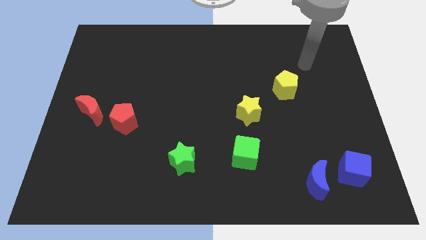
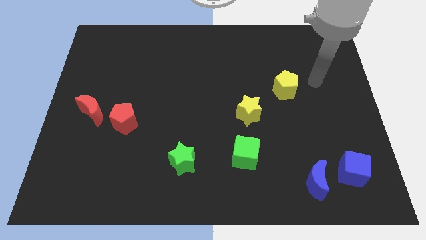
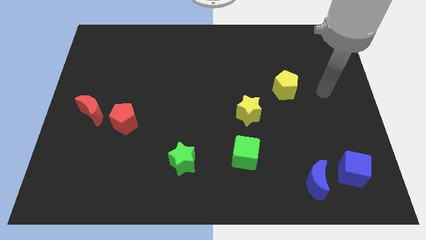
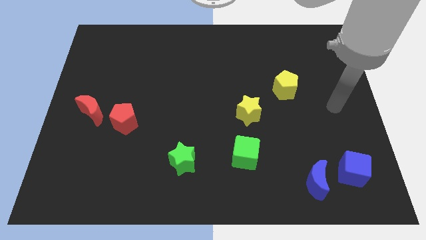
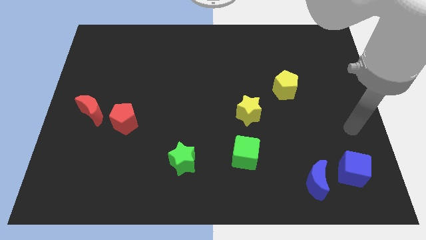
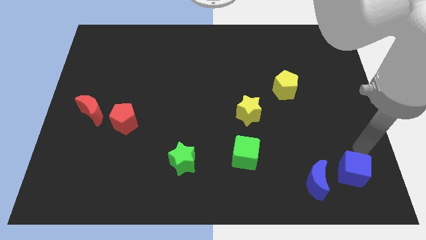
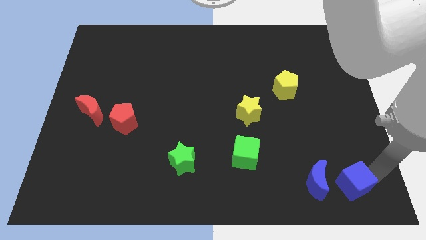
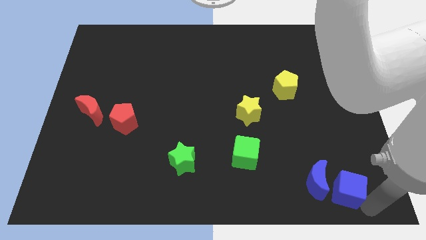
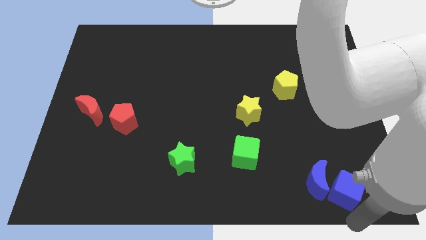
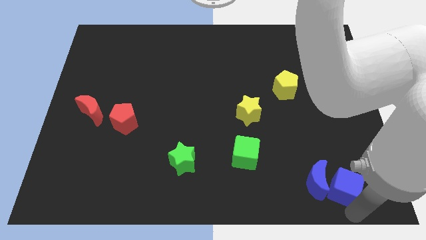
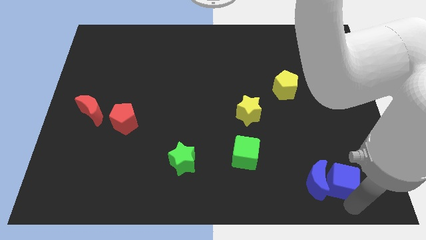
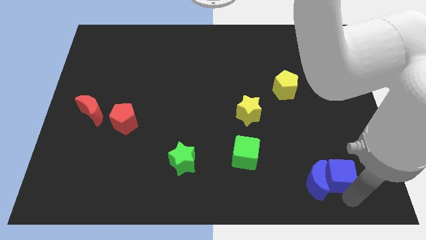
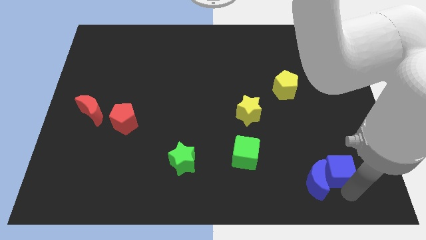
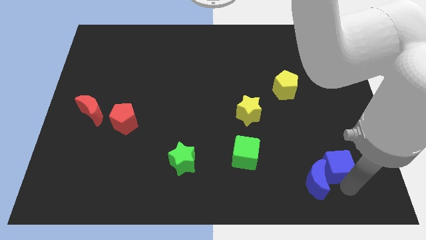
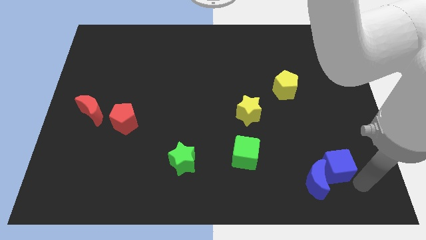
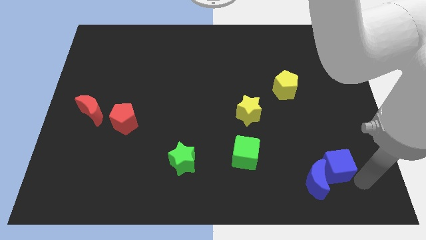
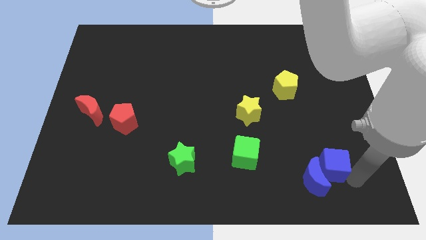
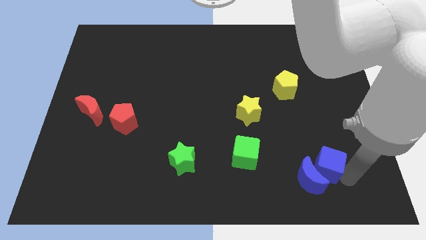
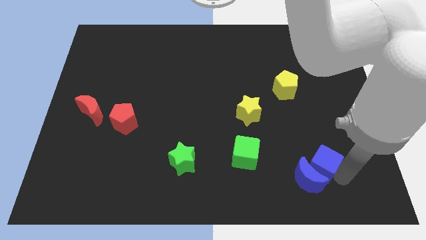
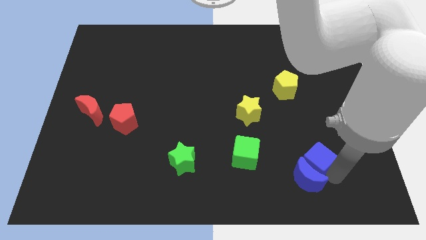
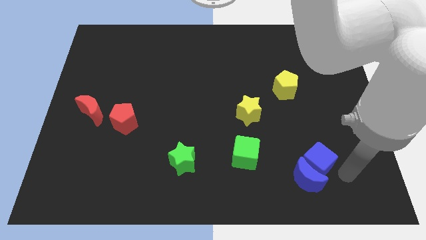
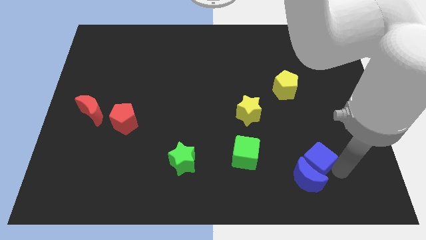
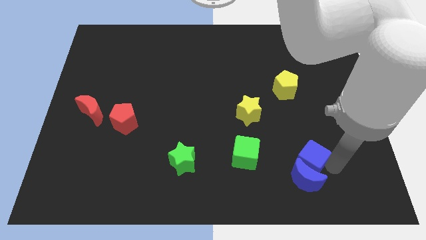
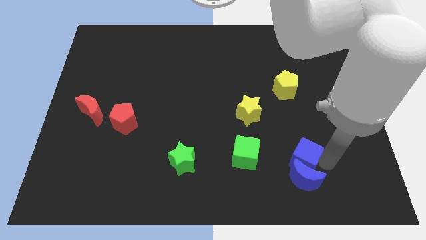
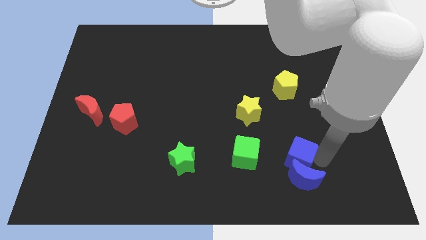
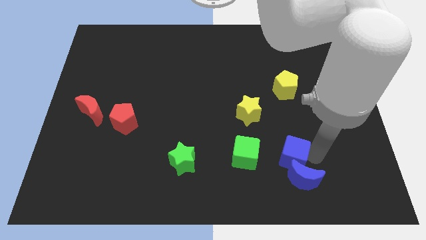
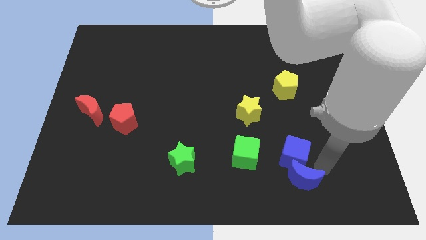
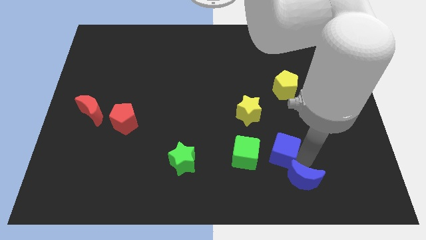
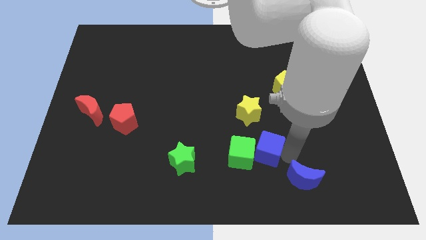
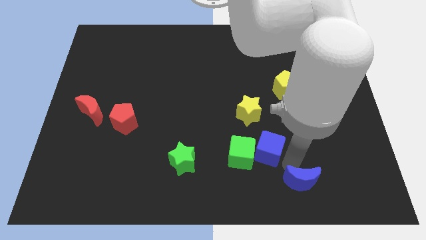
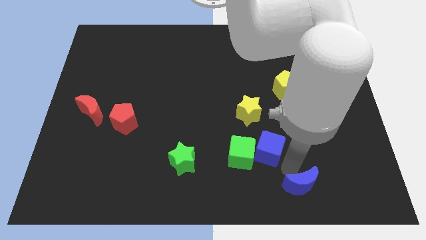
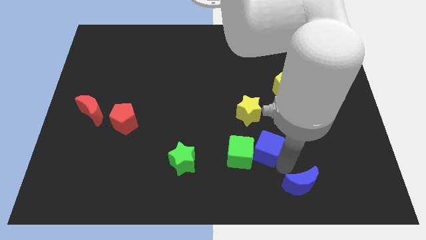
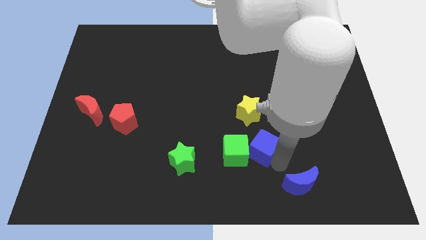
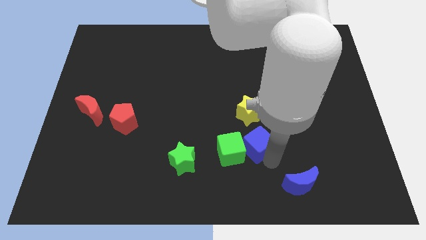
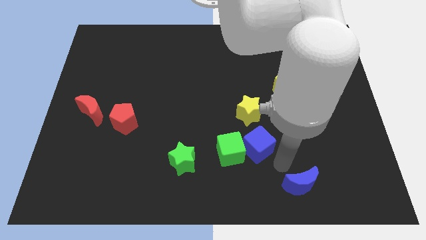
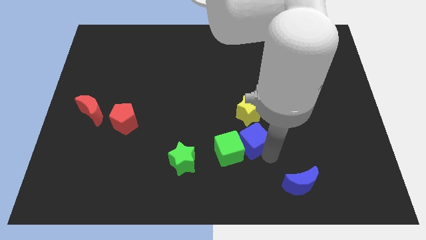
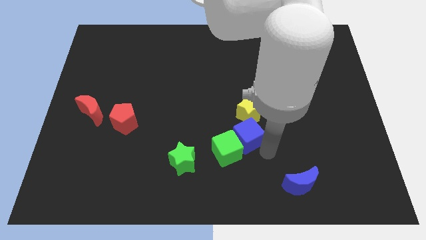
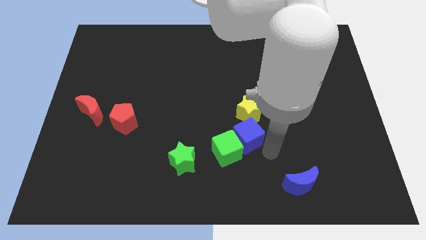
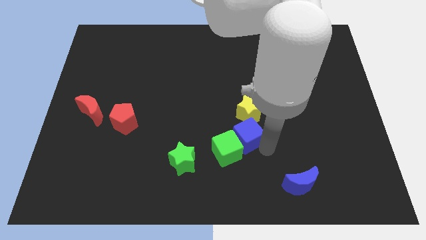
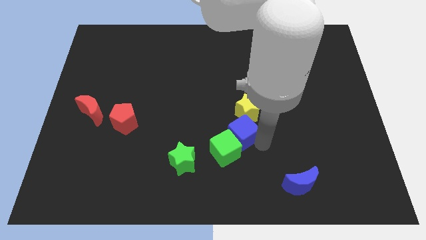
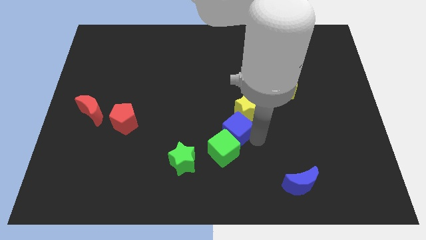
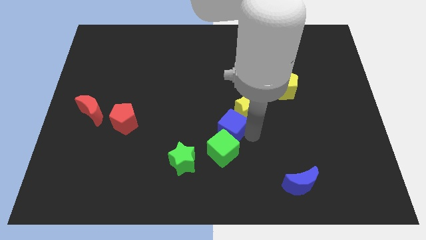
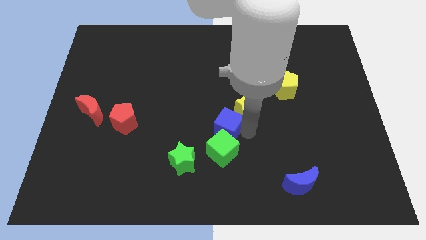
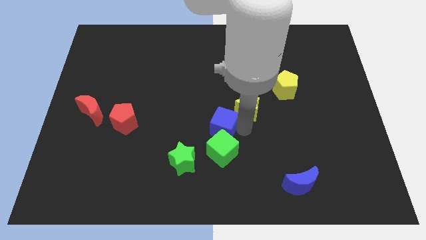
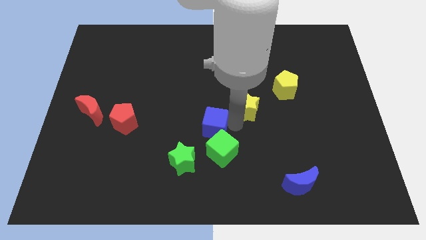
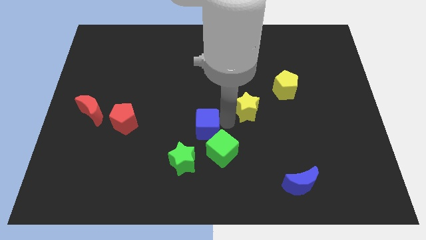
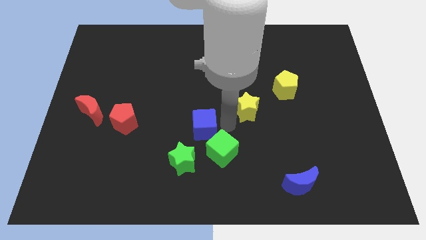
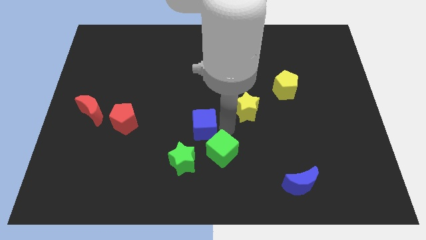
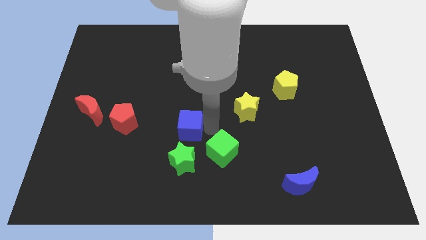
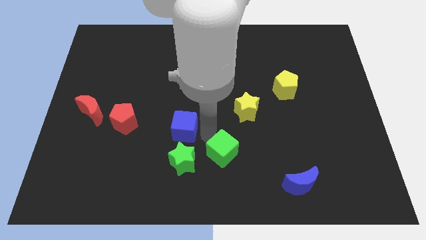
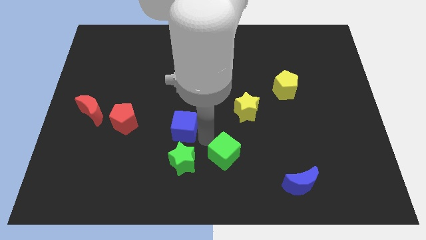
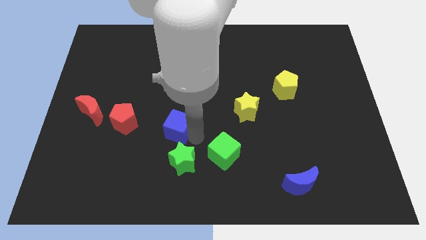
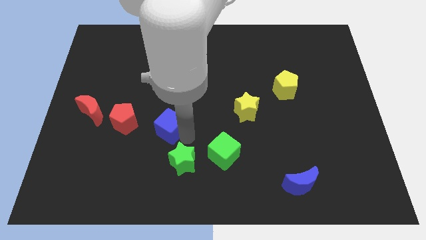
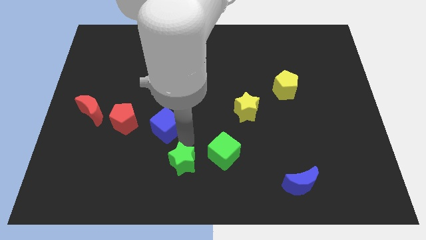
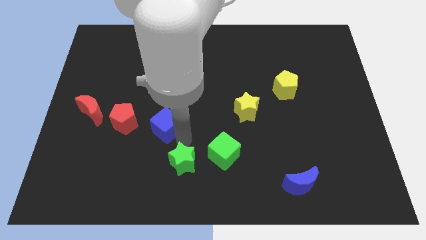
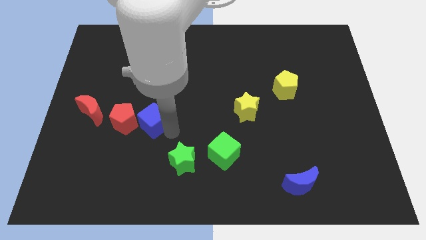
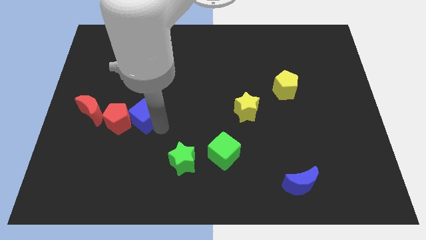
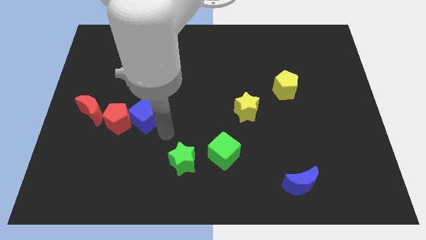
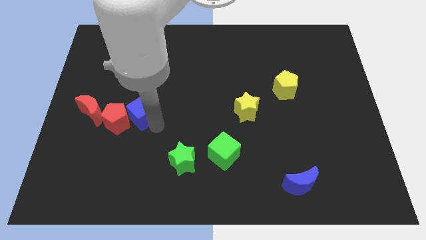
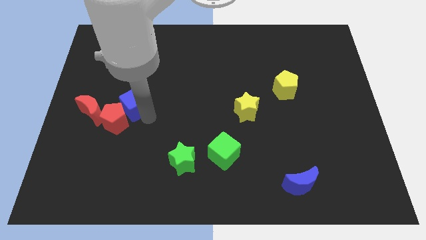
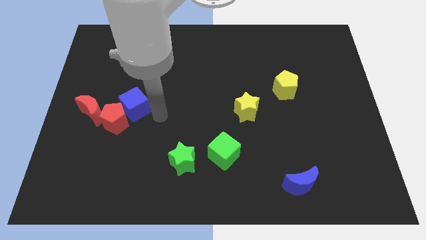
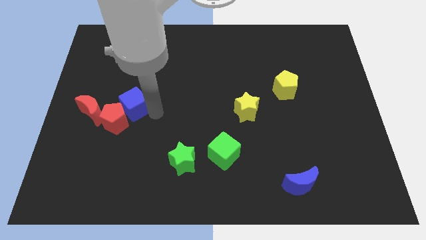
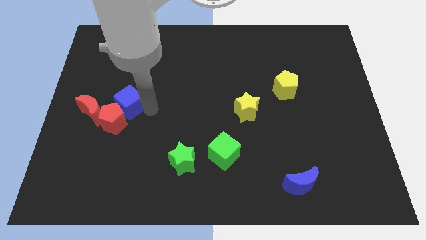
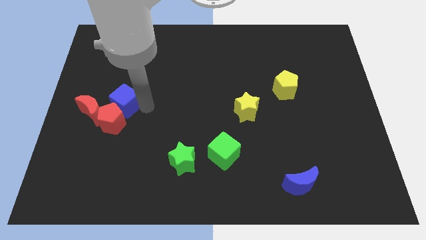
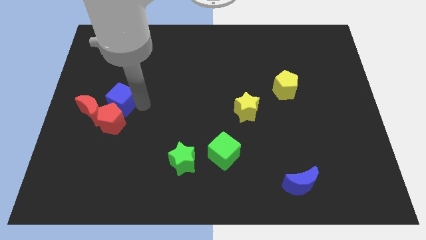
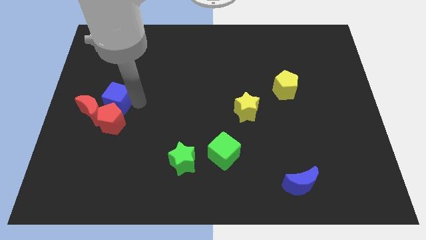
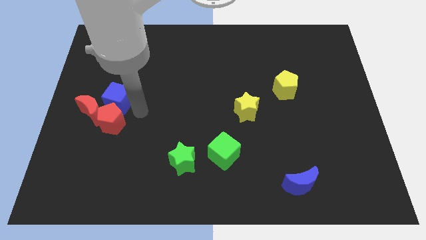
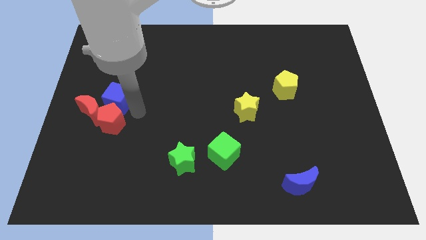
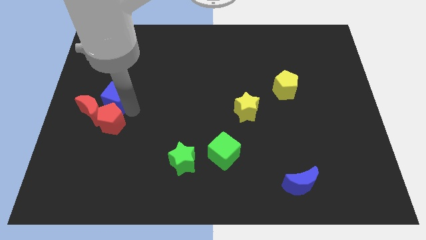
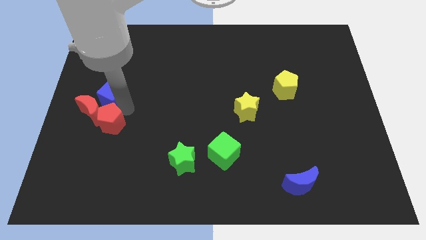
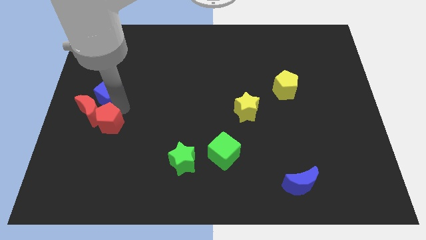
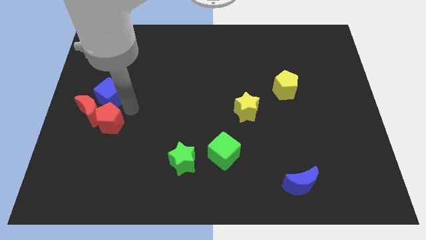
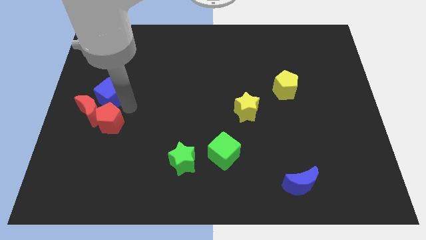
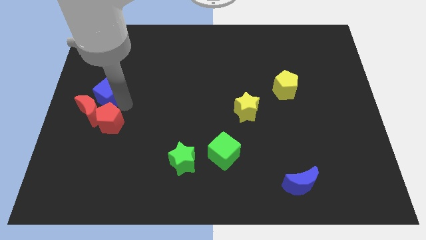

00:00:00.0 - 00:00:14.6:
move the blue cube to the left side

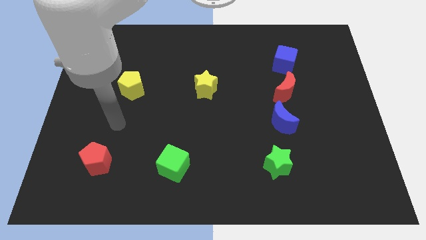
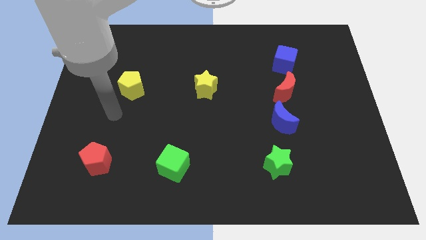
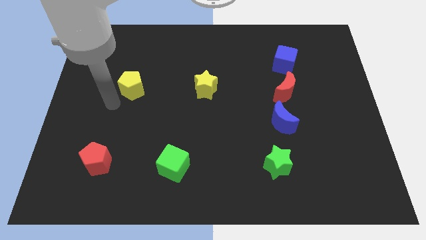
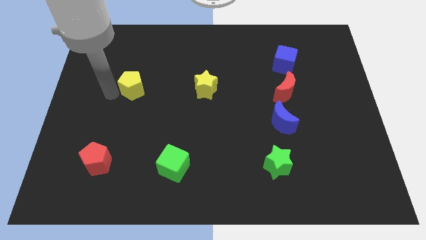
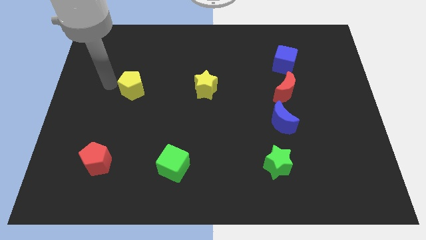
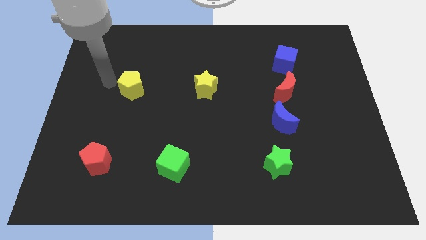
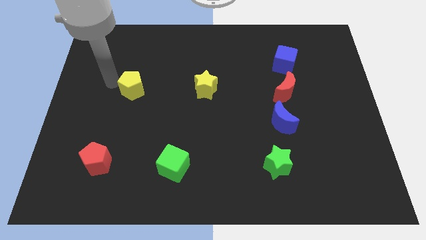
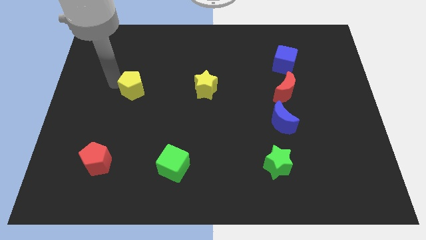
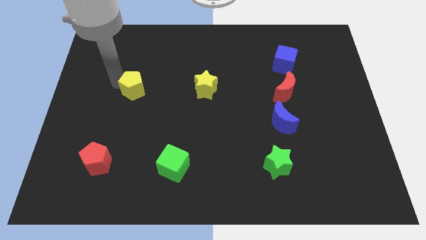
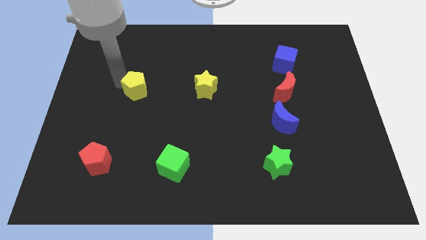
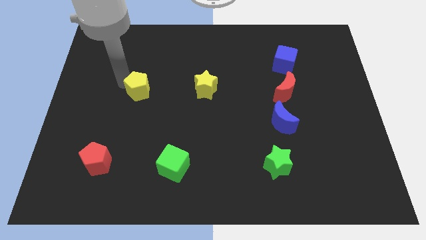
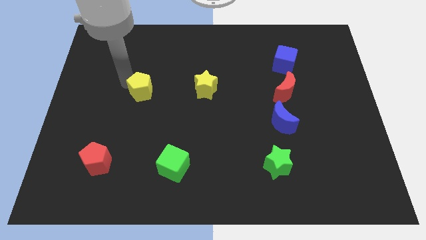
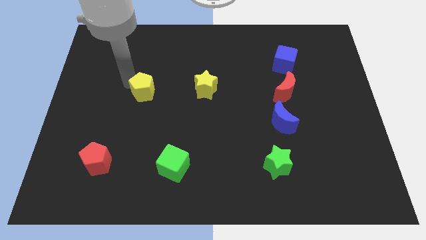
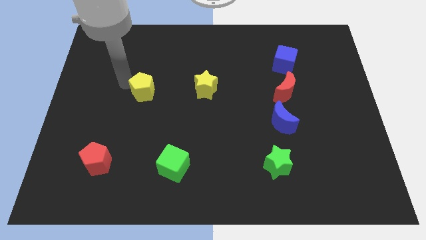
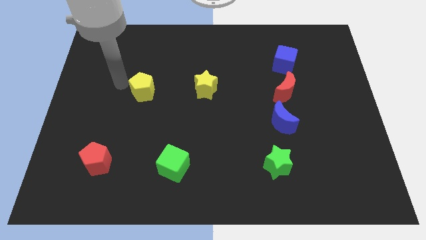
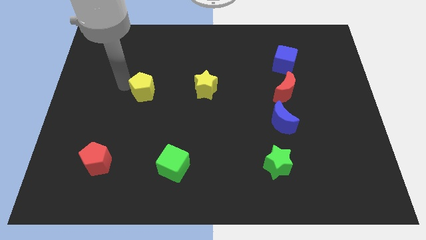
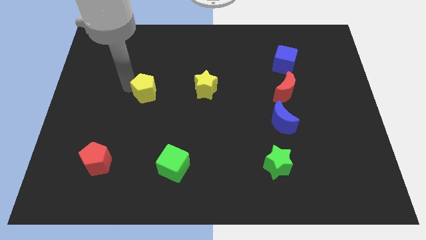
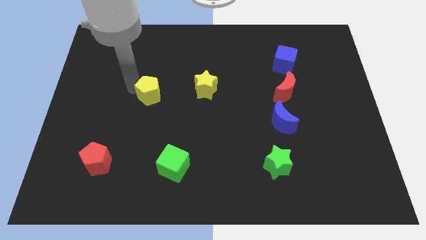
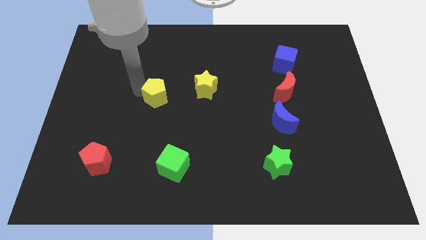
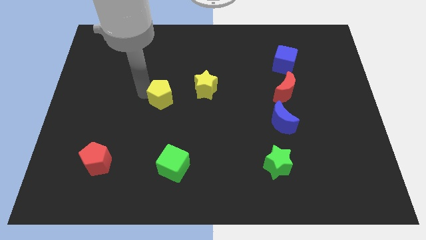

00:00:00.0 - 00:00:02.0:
push the yellow pentagon to the middle of the board
